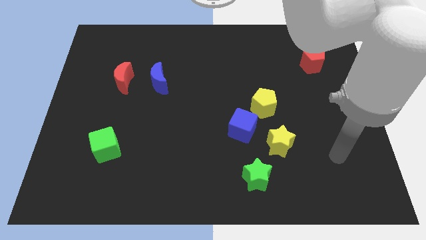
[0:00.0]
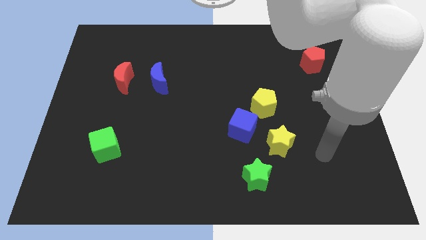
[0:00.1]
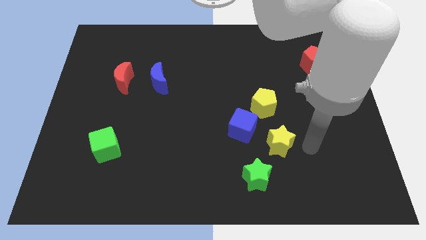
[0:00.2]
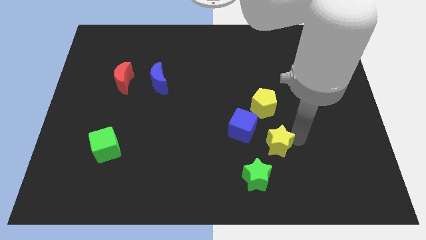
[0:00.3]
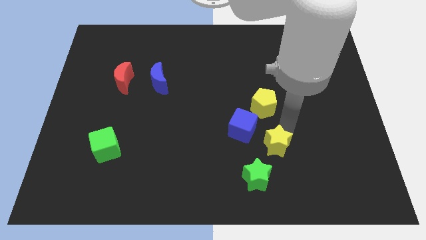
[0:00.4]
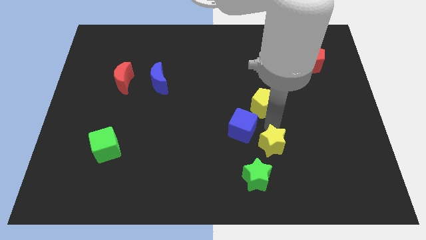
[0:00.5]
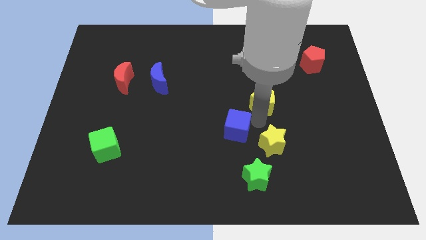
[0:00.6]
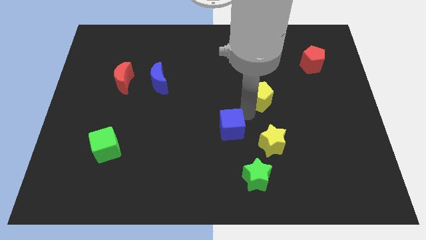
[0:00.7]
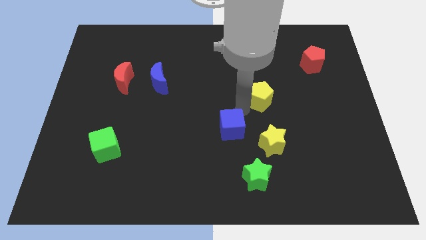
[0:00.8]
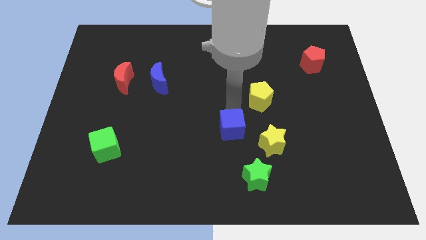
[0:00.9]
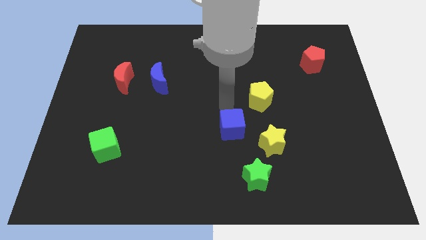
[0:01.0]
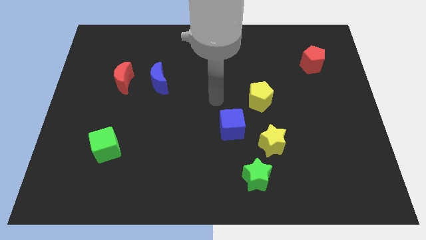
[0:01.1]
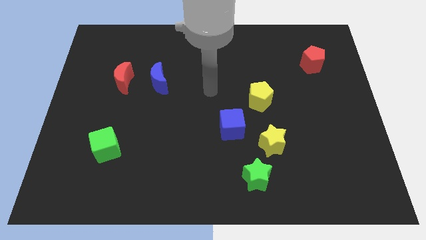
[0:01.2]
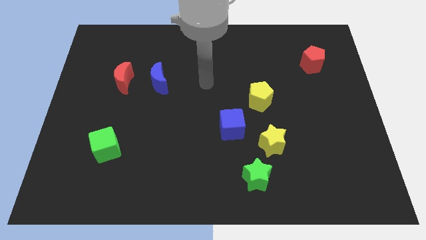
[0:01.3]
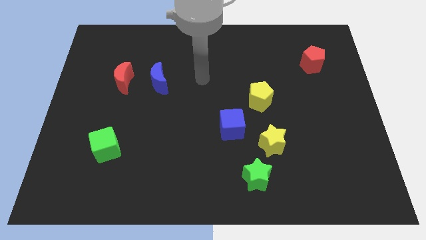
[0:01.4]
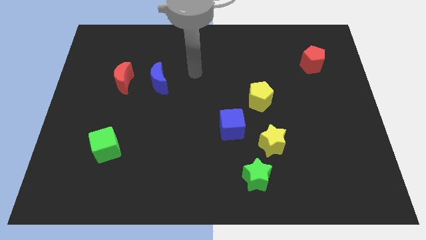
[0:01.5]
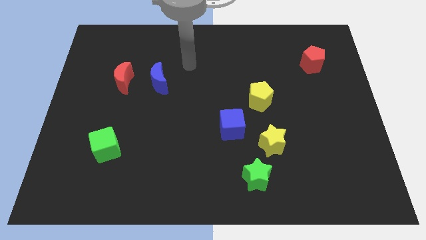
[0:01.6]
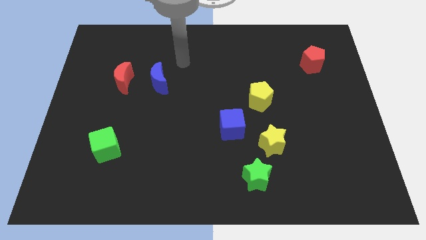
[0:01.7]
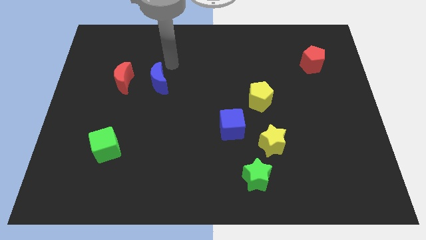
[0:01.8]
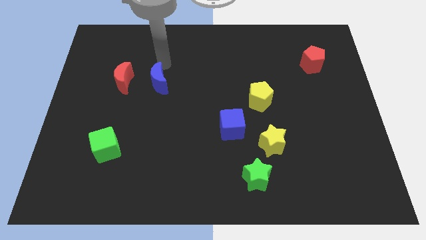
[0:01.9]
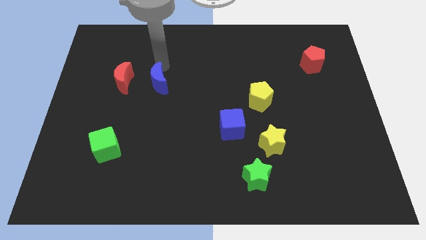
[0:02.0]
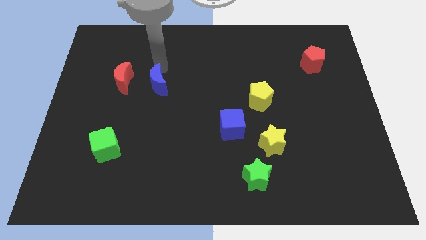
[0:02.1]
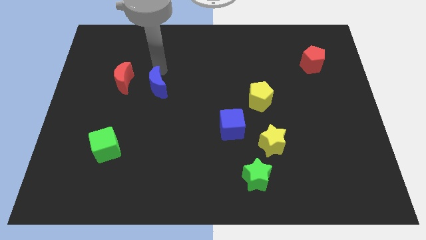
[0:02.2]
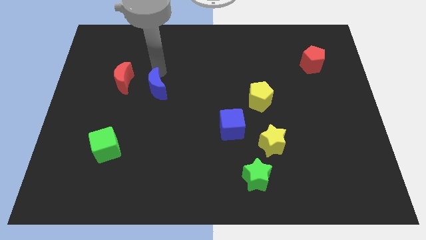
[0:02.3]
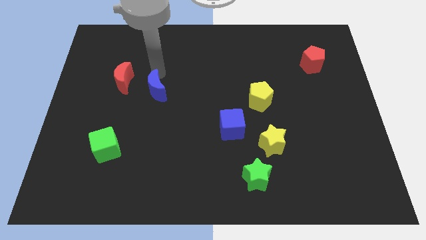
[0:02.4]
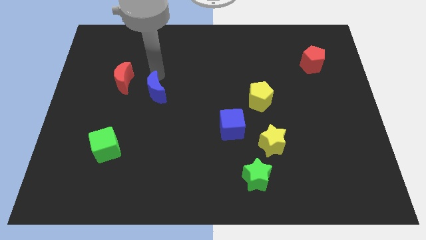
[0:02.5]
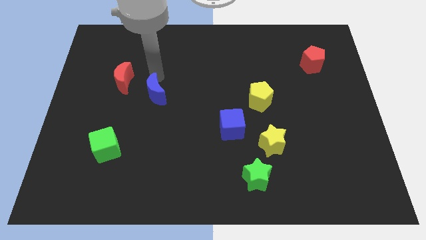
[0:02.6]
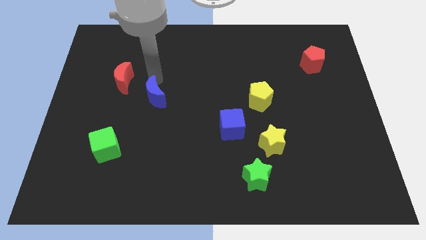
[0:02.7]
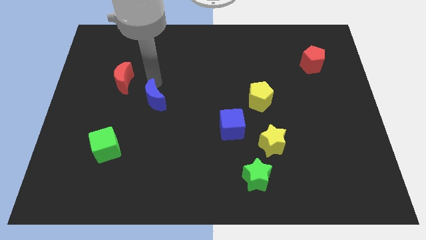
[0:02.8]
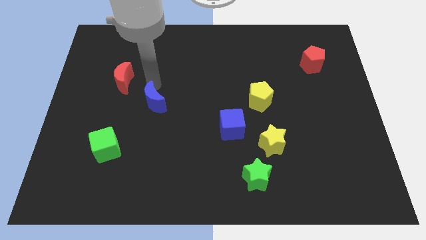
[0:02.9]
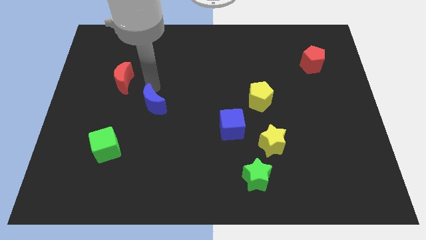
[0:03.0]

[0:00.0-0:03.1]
push the blue moon somewhat down

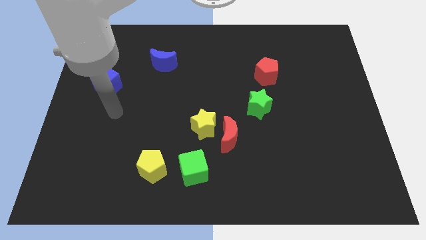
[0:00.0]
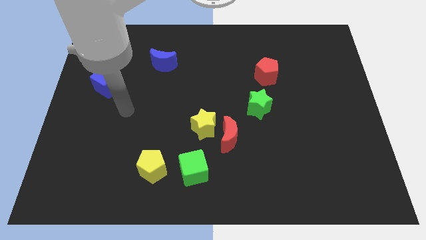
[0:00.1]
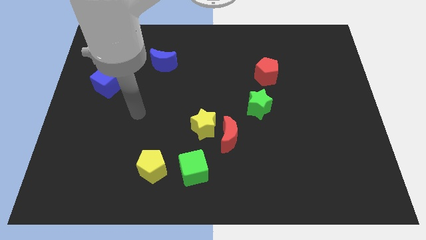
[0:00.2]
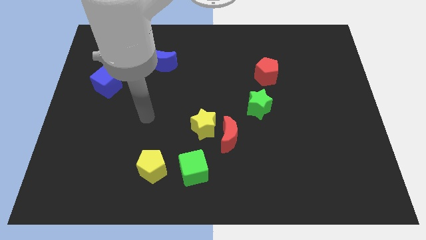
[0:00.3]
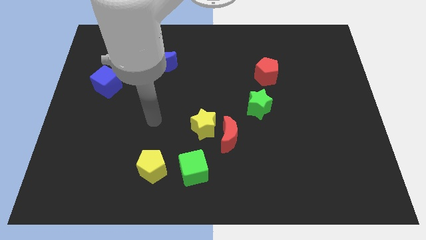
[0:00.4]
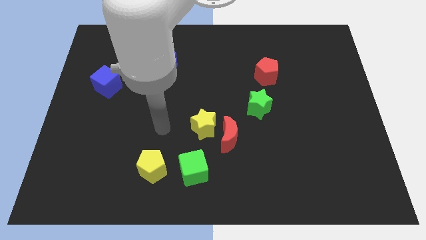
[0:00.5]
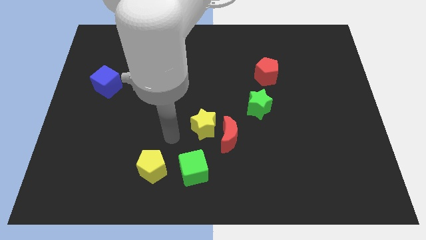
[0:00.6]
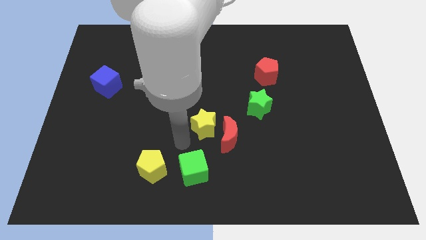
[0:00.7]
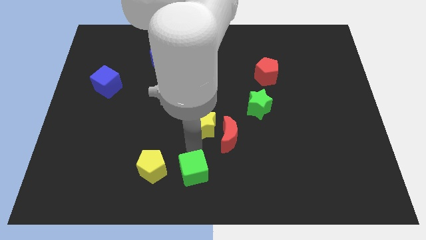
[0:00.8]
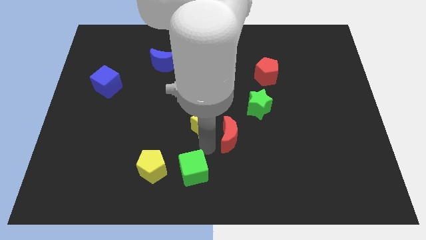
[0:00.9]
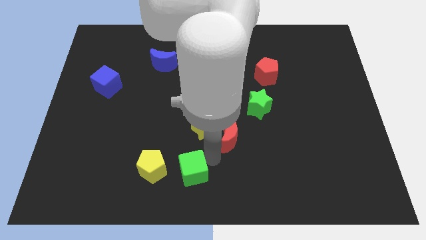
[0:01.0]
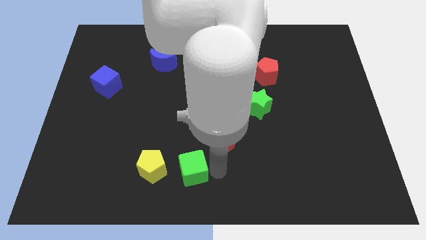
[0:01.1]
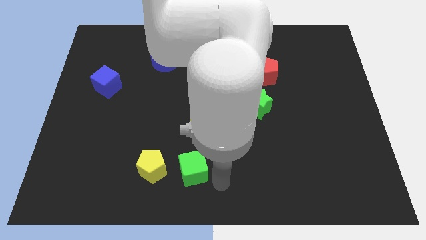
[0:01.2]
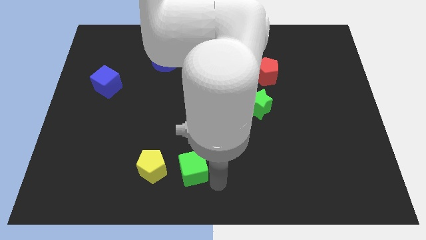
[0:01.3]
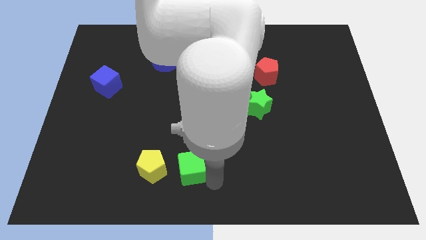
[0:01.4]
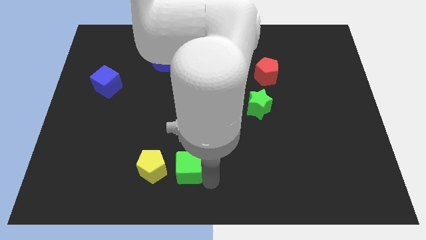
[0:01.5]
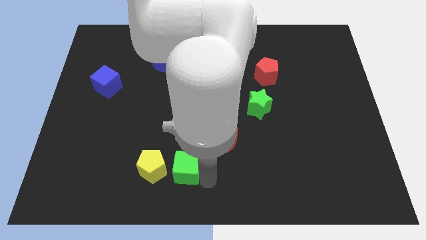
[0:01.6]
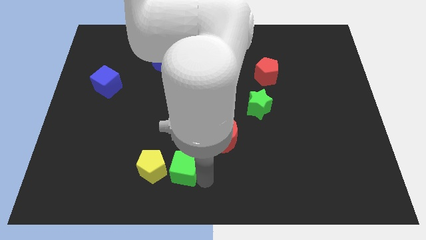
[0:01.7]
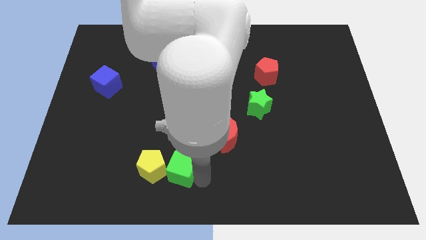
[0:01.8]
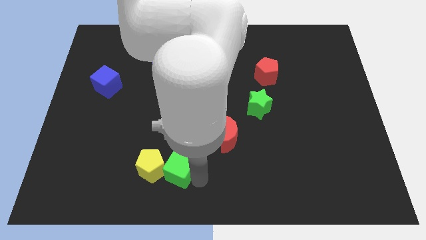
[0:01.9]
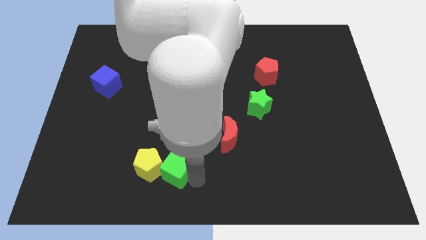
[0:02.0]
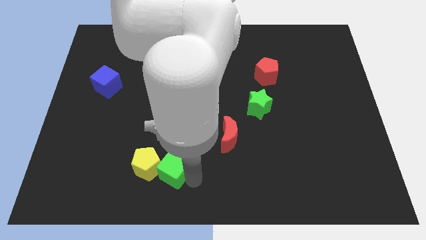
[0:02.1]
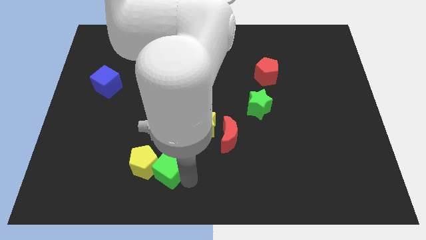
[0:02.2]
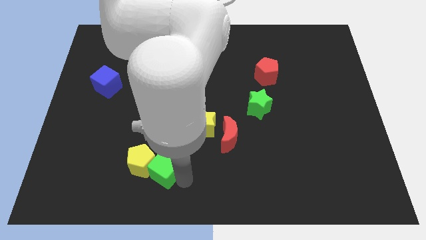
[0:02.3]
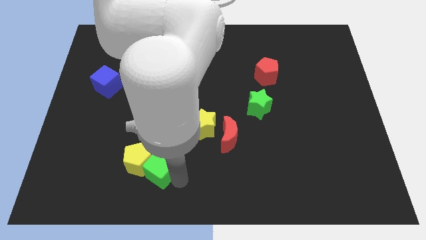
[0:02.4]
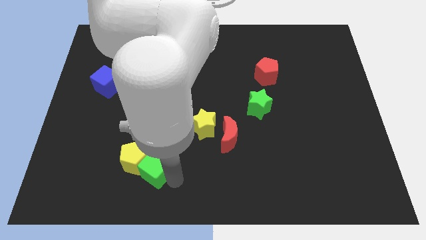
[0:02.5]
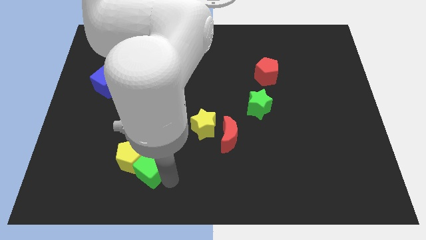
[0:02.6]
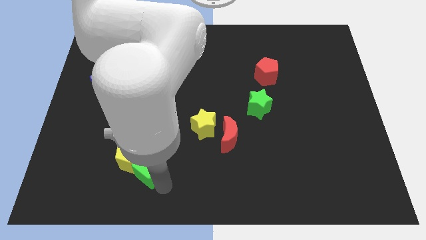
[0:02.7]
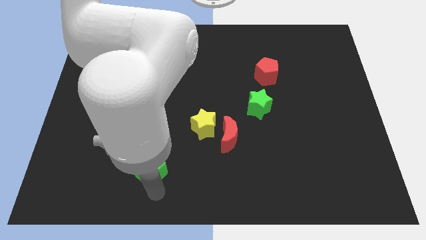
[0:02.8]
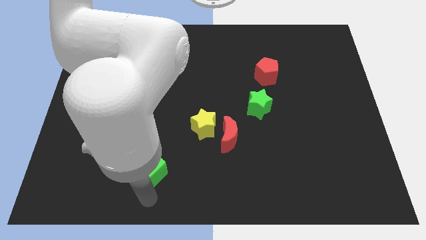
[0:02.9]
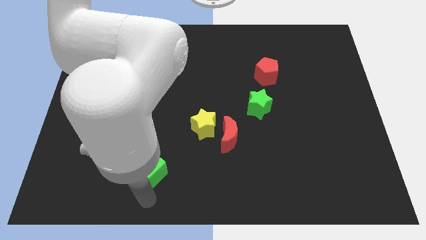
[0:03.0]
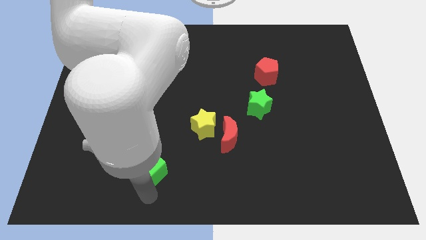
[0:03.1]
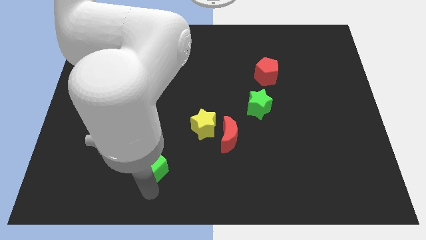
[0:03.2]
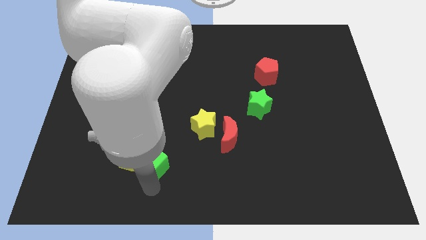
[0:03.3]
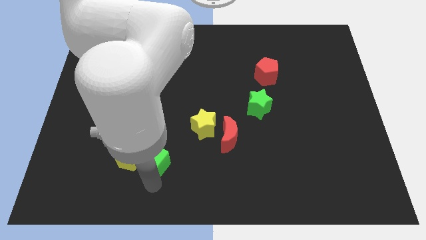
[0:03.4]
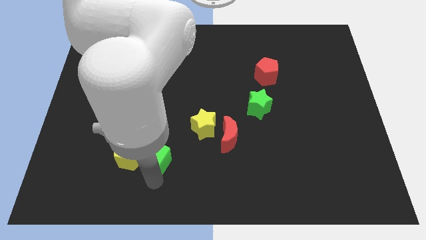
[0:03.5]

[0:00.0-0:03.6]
move the green cube a little upwards and left

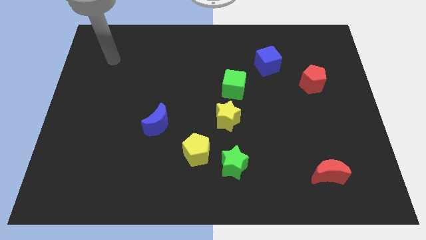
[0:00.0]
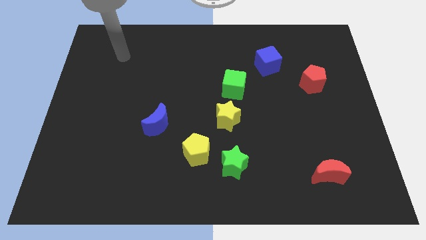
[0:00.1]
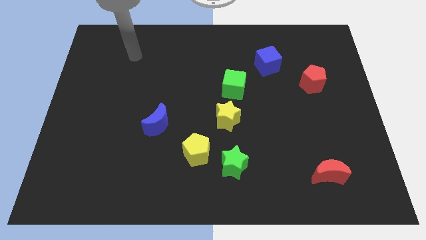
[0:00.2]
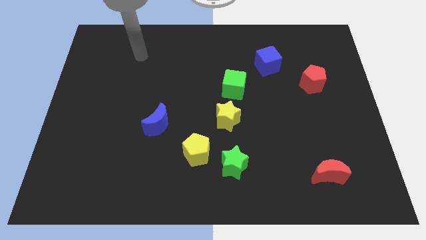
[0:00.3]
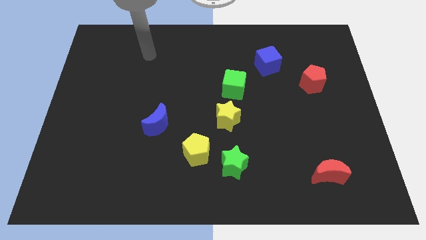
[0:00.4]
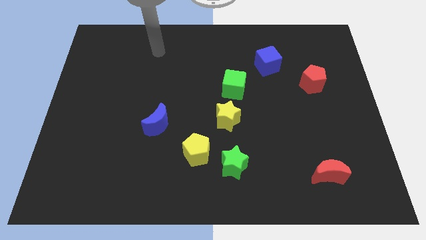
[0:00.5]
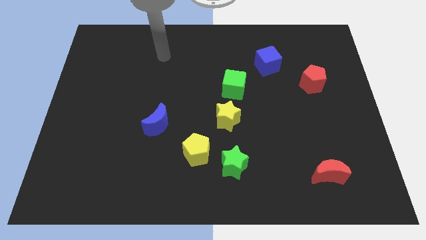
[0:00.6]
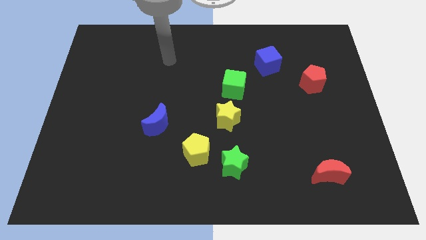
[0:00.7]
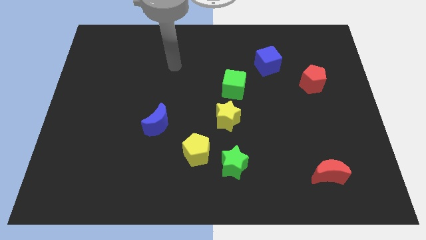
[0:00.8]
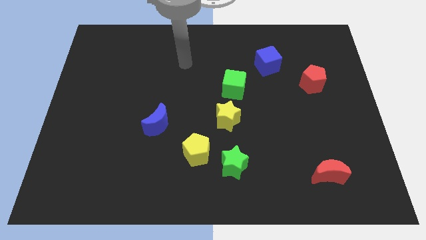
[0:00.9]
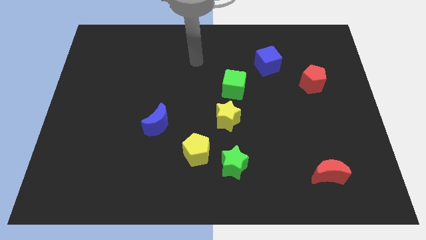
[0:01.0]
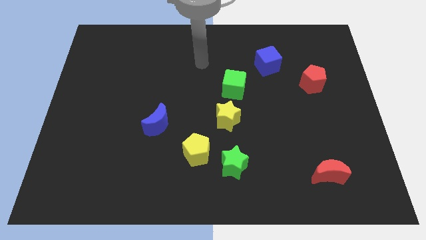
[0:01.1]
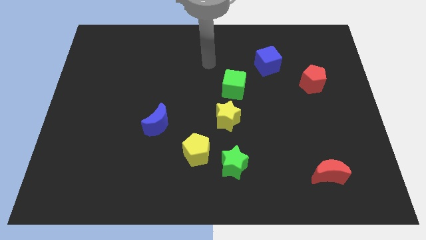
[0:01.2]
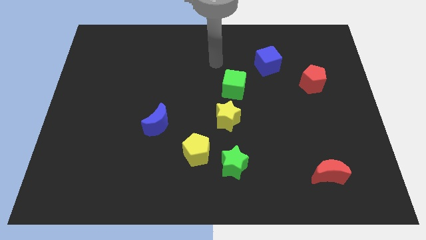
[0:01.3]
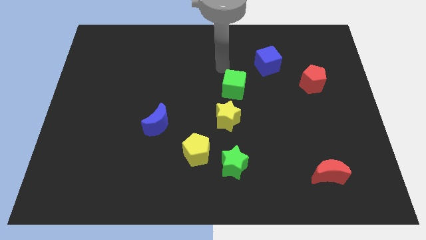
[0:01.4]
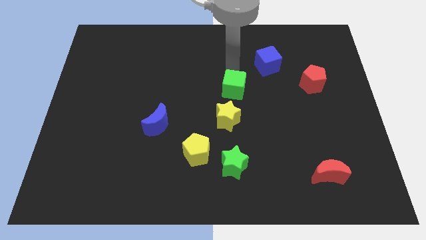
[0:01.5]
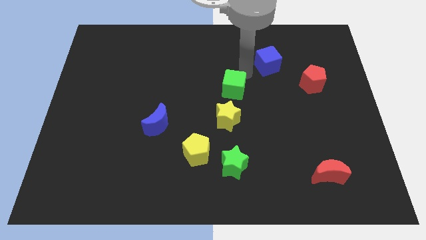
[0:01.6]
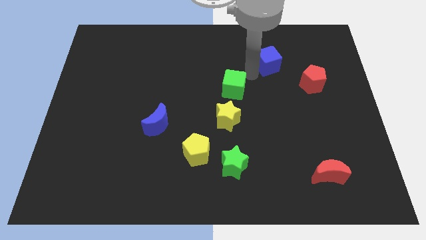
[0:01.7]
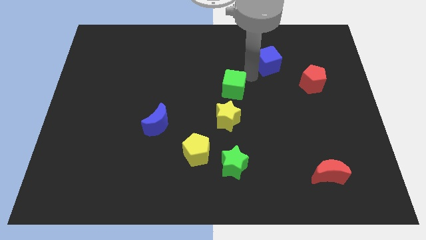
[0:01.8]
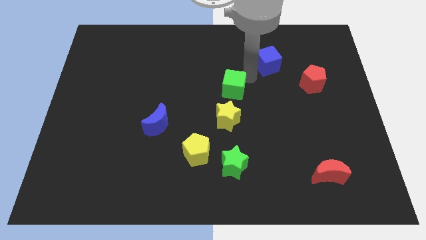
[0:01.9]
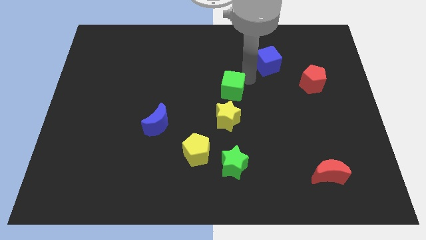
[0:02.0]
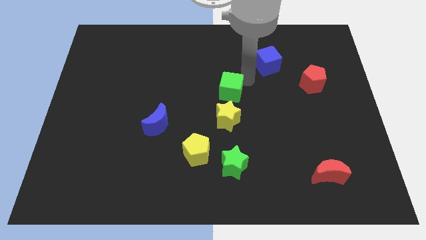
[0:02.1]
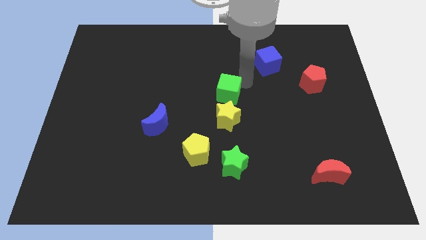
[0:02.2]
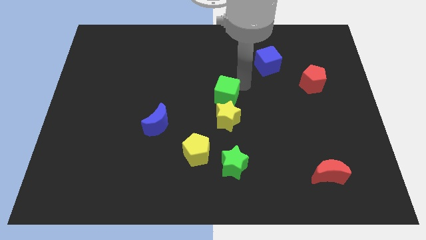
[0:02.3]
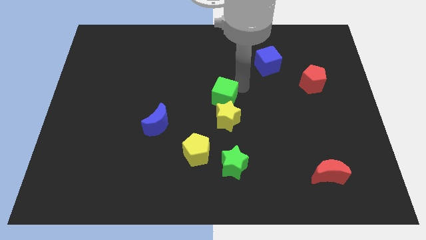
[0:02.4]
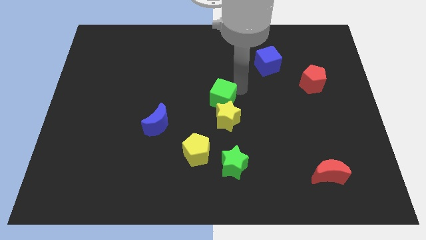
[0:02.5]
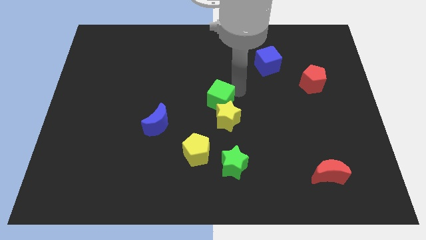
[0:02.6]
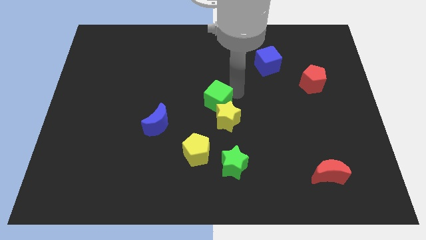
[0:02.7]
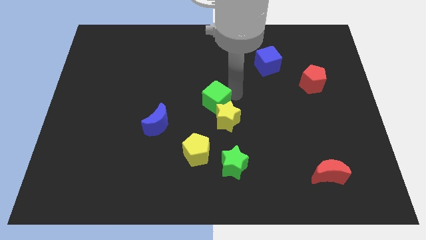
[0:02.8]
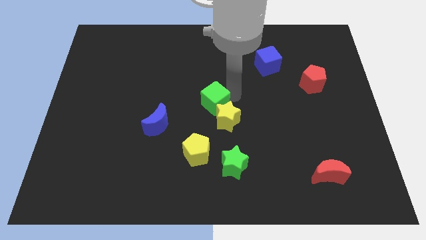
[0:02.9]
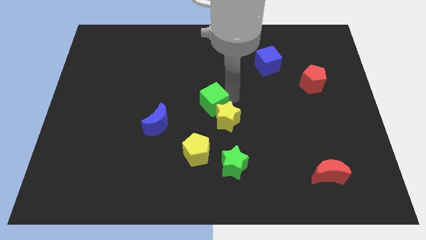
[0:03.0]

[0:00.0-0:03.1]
push the green cube down and then left a little
